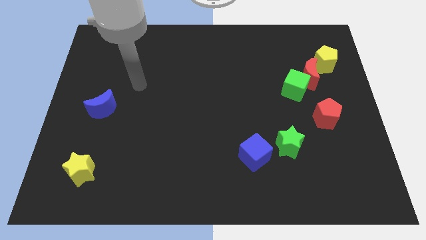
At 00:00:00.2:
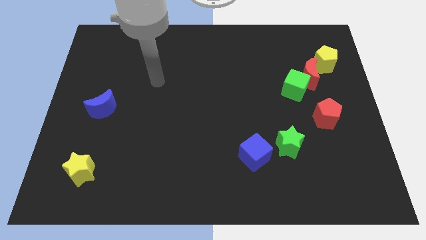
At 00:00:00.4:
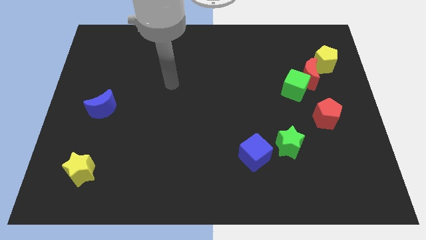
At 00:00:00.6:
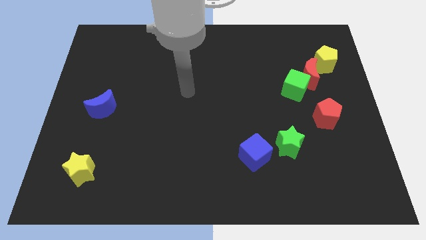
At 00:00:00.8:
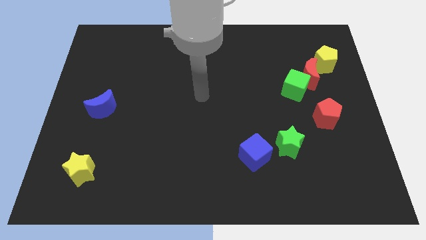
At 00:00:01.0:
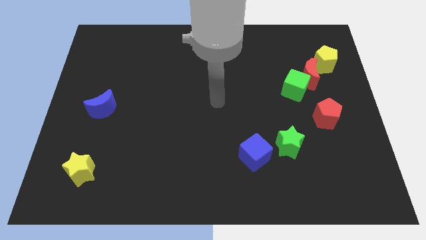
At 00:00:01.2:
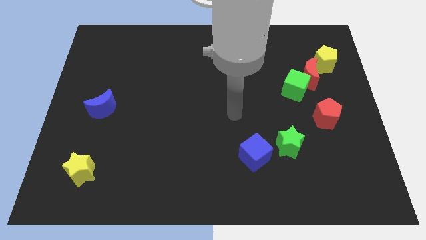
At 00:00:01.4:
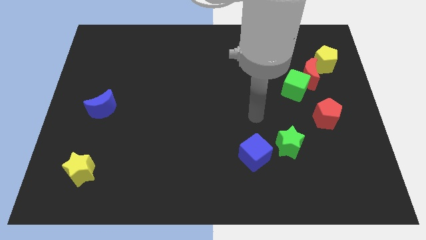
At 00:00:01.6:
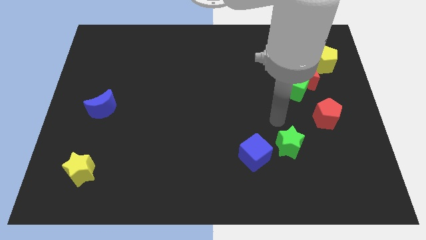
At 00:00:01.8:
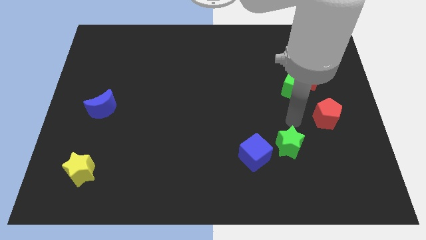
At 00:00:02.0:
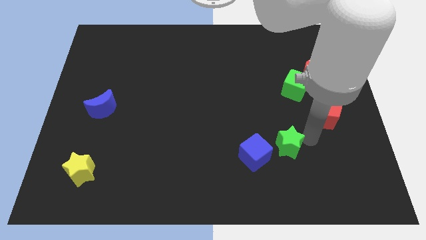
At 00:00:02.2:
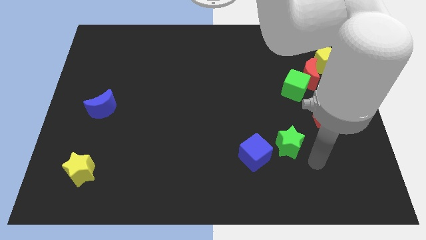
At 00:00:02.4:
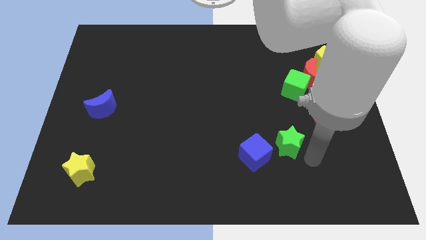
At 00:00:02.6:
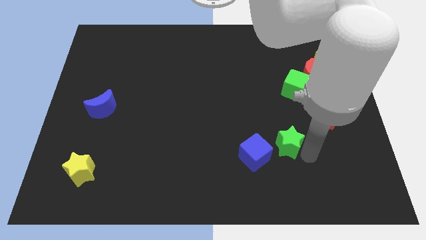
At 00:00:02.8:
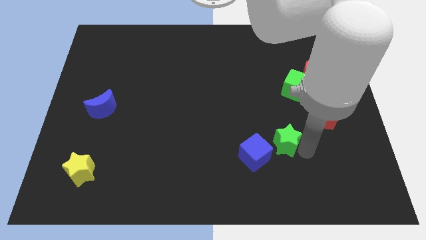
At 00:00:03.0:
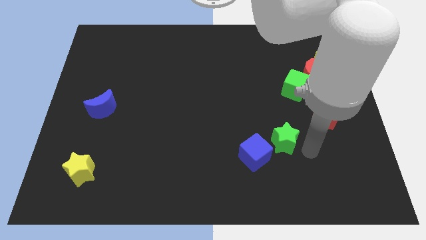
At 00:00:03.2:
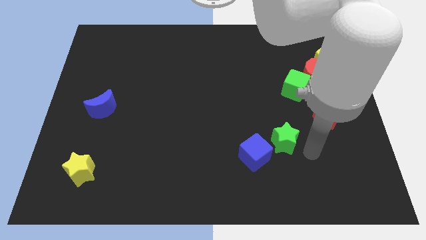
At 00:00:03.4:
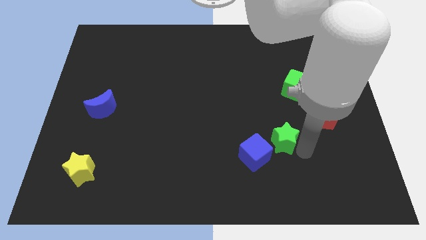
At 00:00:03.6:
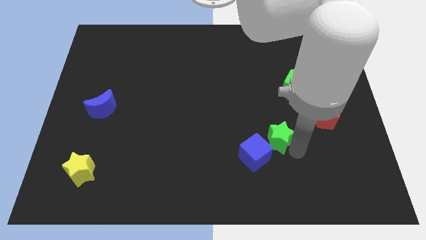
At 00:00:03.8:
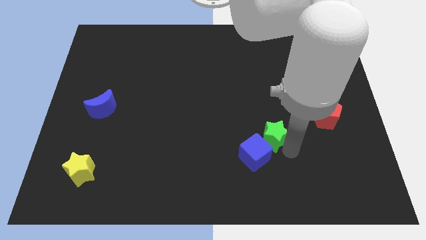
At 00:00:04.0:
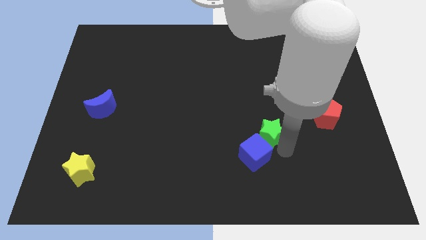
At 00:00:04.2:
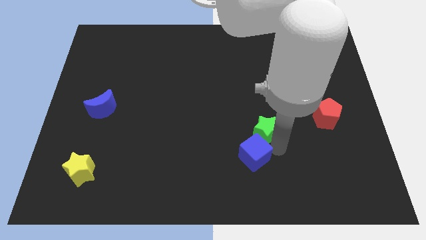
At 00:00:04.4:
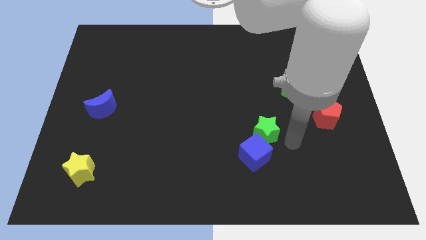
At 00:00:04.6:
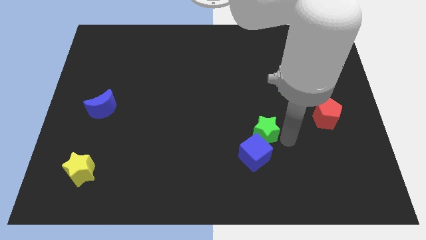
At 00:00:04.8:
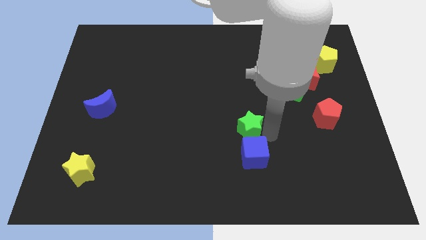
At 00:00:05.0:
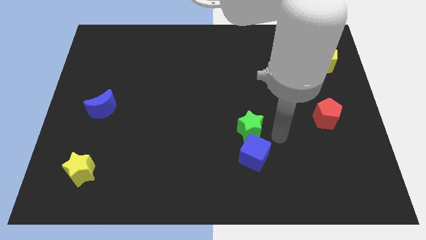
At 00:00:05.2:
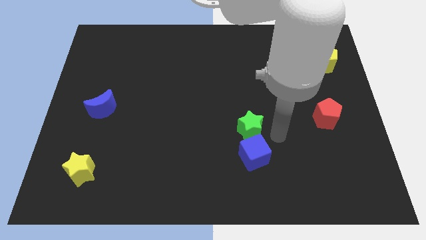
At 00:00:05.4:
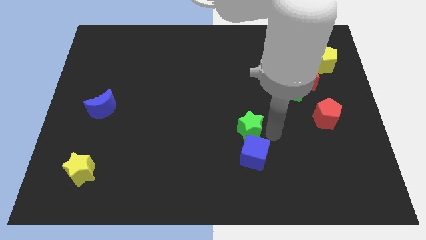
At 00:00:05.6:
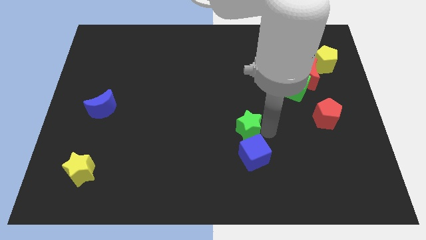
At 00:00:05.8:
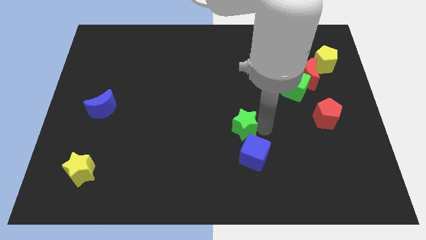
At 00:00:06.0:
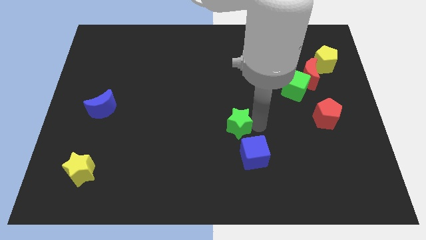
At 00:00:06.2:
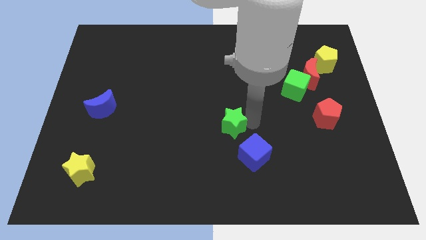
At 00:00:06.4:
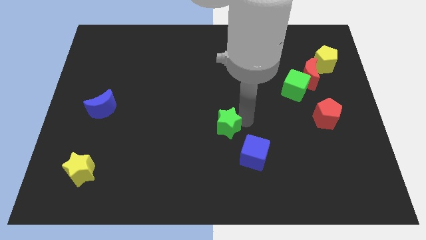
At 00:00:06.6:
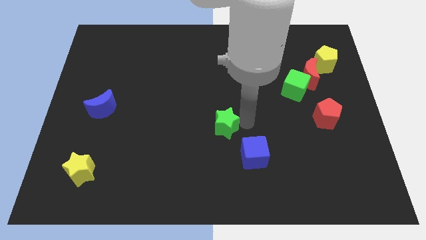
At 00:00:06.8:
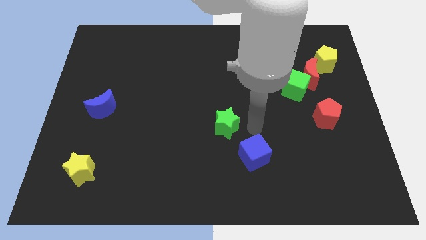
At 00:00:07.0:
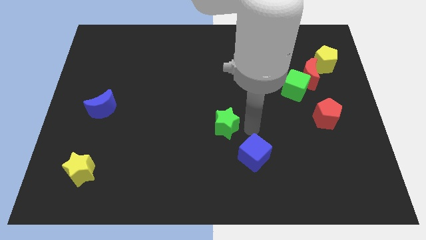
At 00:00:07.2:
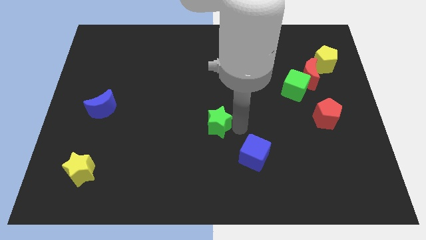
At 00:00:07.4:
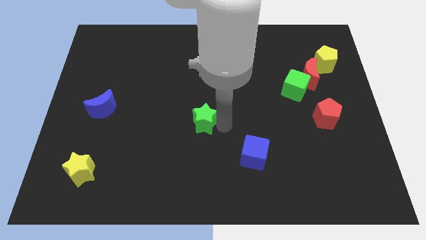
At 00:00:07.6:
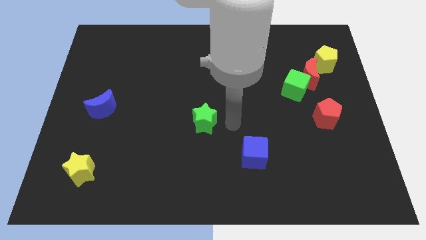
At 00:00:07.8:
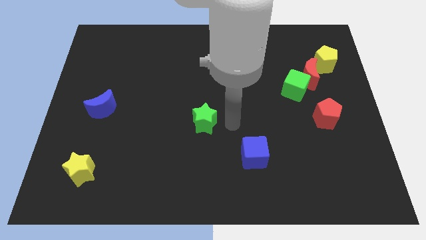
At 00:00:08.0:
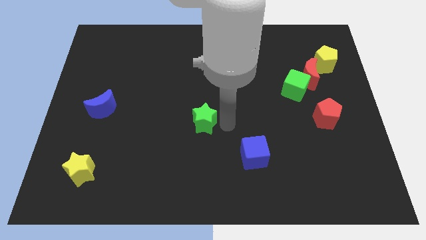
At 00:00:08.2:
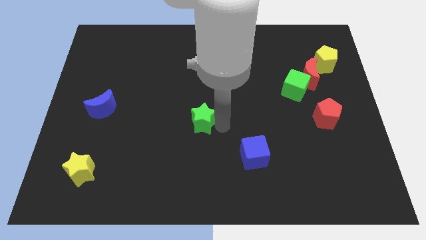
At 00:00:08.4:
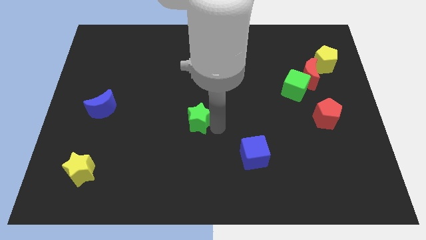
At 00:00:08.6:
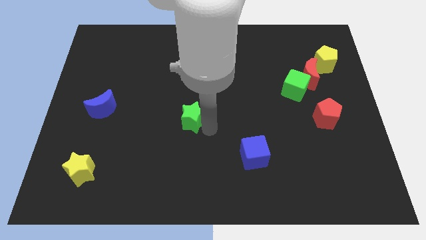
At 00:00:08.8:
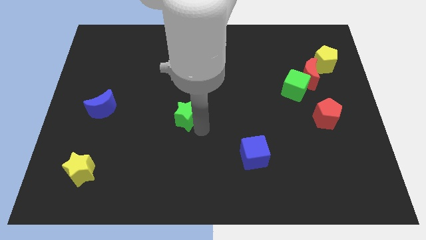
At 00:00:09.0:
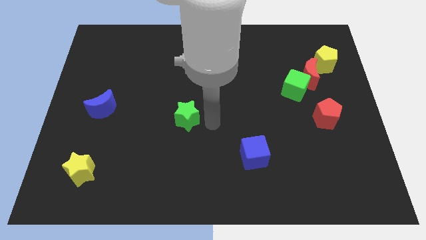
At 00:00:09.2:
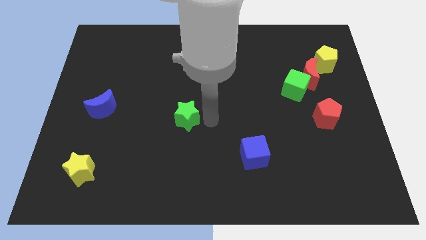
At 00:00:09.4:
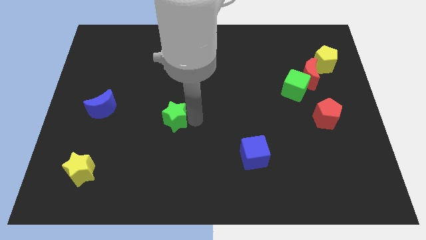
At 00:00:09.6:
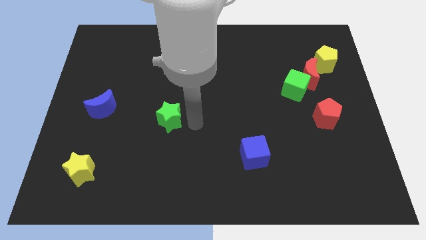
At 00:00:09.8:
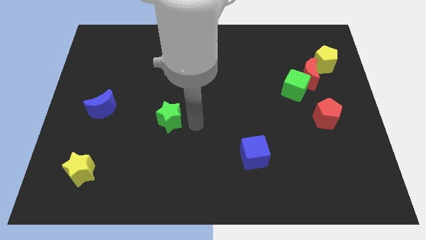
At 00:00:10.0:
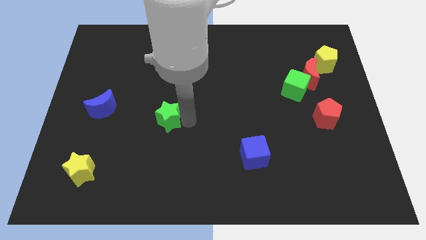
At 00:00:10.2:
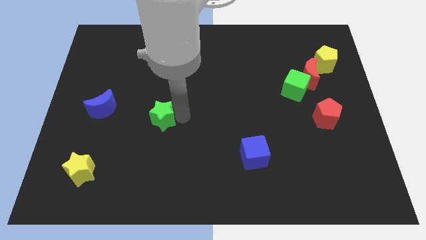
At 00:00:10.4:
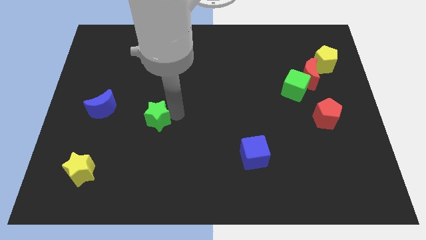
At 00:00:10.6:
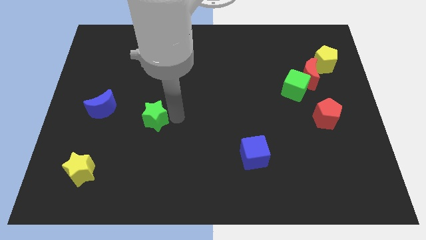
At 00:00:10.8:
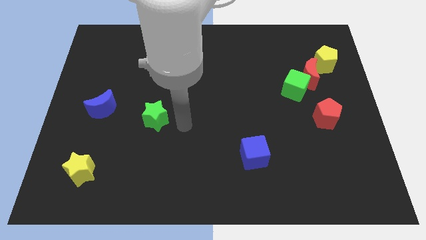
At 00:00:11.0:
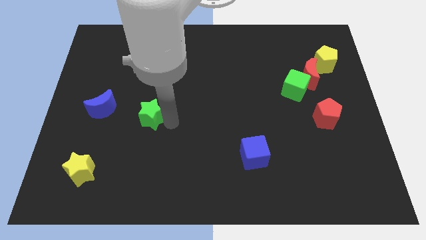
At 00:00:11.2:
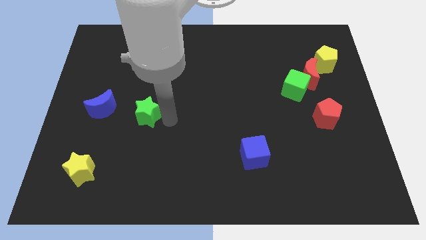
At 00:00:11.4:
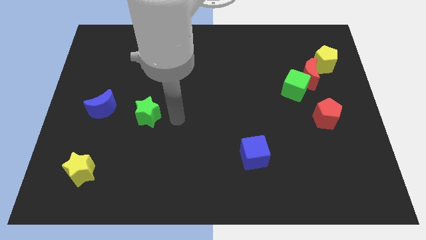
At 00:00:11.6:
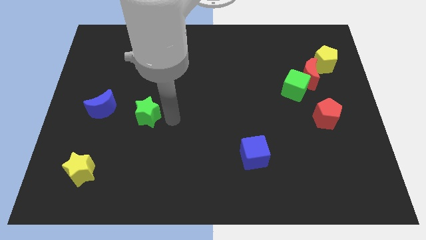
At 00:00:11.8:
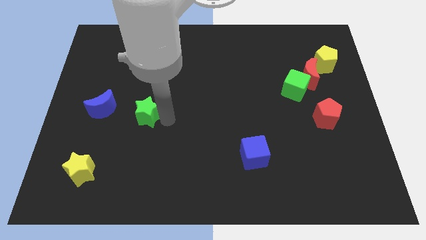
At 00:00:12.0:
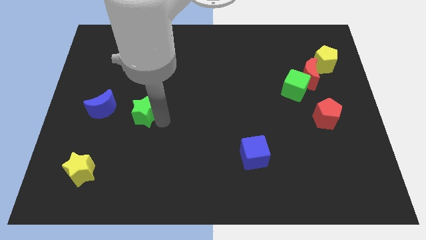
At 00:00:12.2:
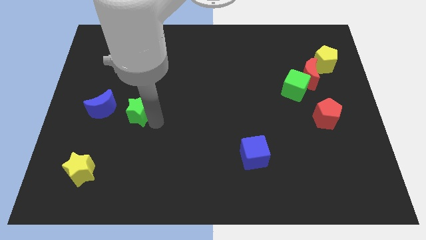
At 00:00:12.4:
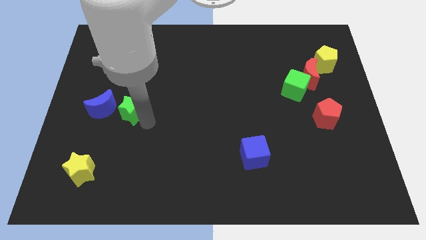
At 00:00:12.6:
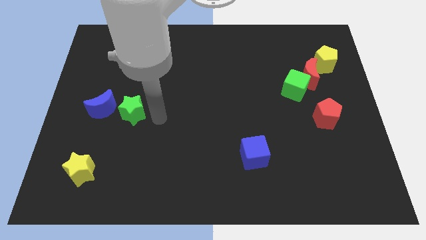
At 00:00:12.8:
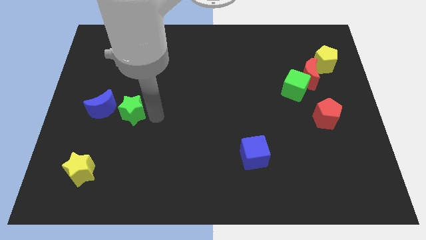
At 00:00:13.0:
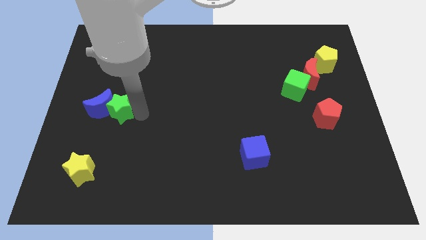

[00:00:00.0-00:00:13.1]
push the green star close to the blue moon
